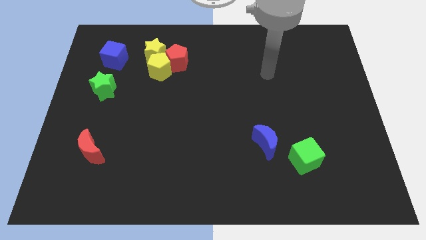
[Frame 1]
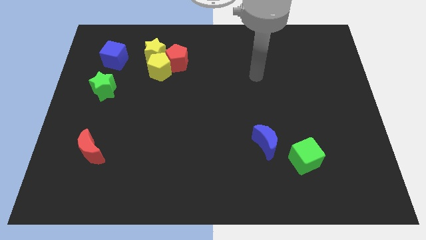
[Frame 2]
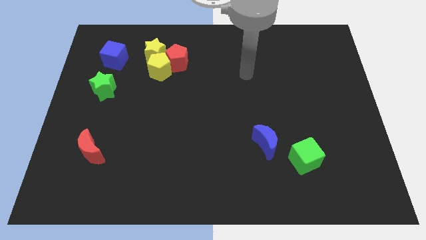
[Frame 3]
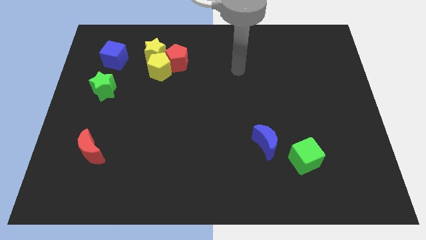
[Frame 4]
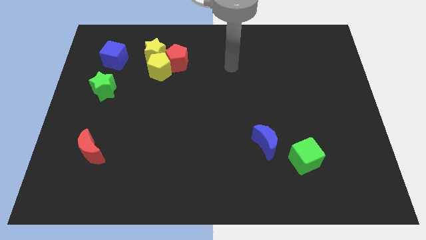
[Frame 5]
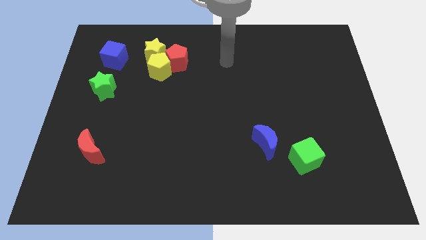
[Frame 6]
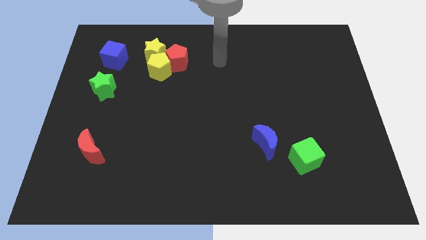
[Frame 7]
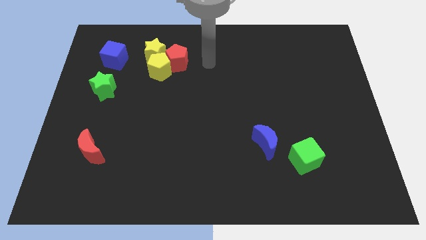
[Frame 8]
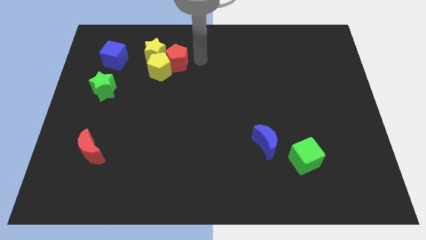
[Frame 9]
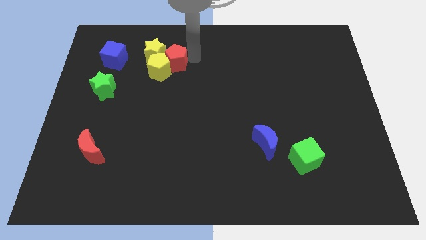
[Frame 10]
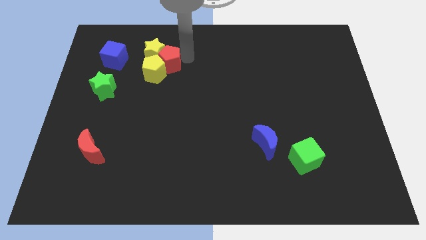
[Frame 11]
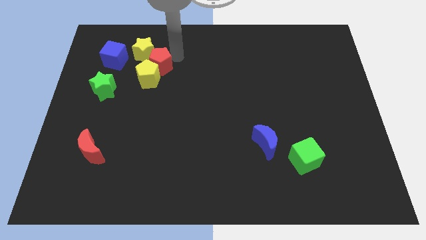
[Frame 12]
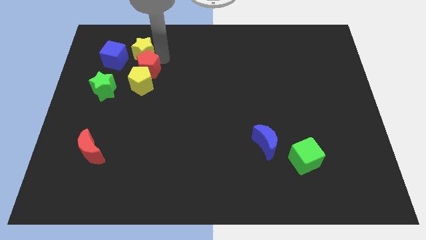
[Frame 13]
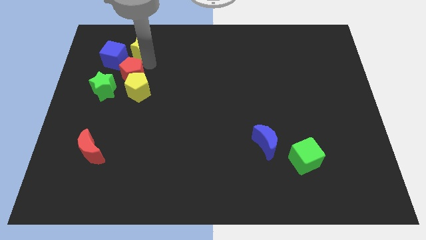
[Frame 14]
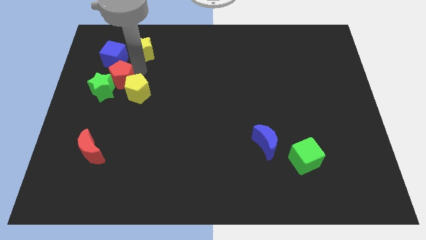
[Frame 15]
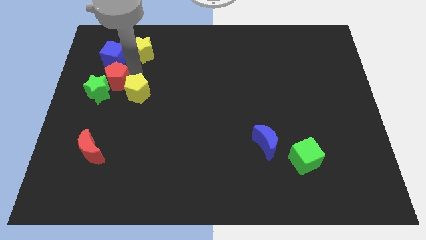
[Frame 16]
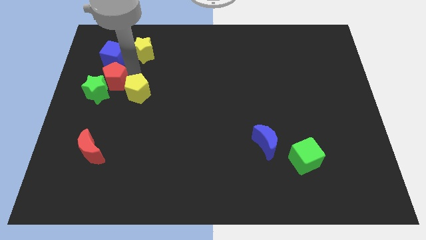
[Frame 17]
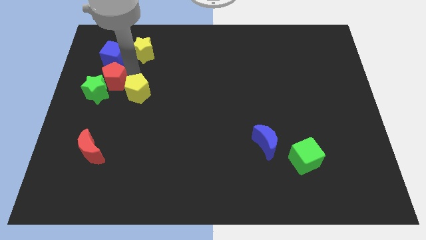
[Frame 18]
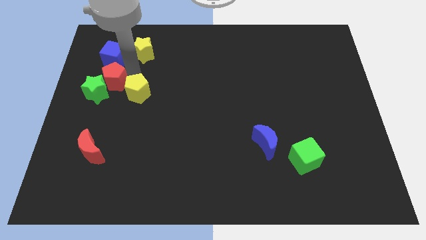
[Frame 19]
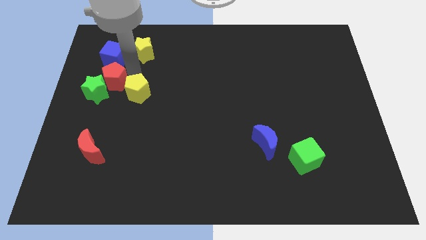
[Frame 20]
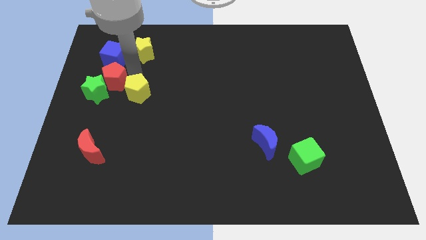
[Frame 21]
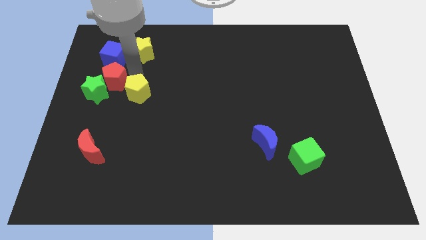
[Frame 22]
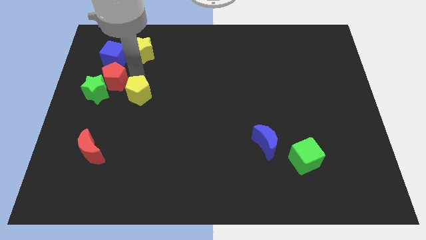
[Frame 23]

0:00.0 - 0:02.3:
pull the yellow pentagon apart from the red pentagon and yellow star

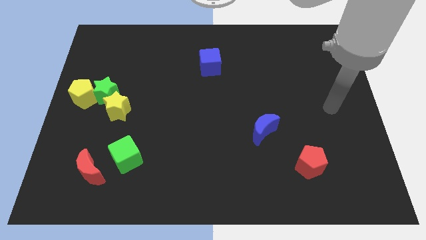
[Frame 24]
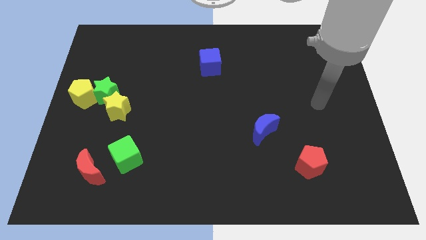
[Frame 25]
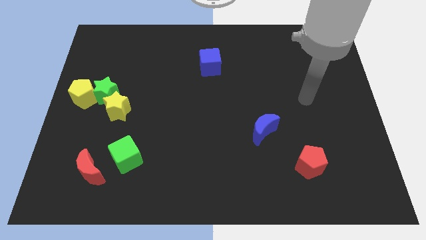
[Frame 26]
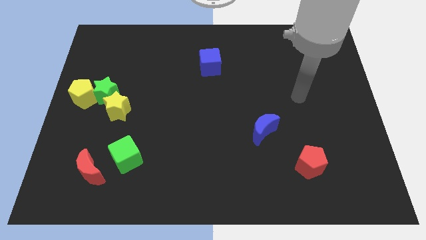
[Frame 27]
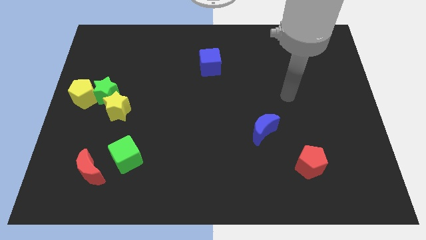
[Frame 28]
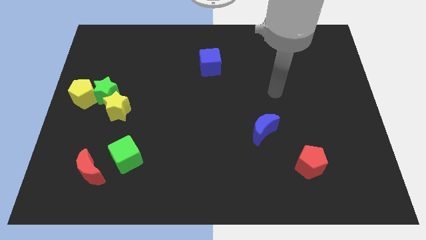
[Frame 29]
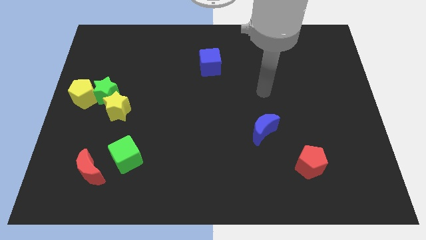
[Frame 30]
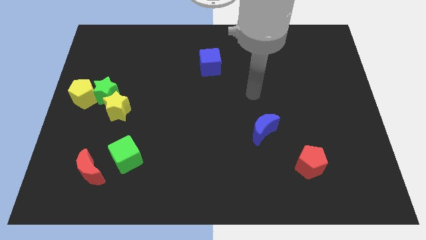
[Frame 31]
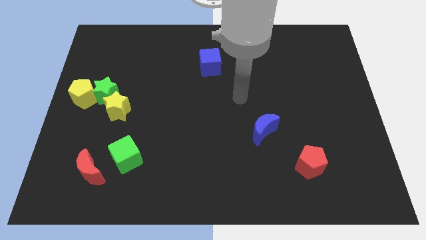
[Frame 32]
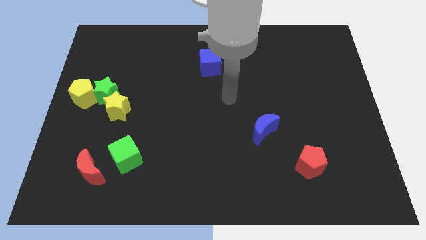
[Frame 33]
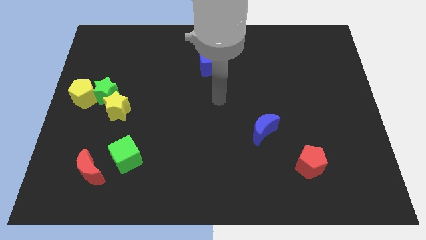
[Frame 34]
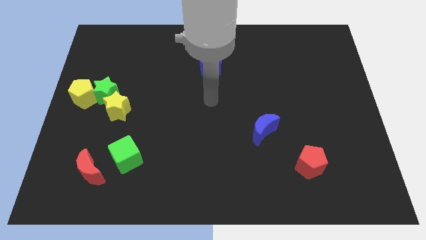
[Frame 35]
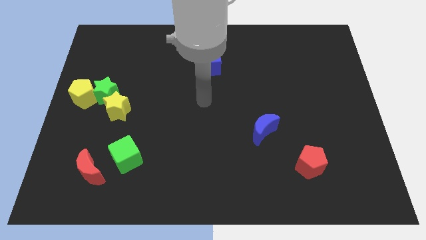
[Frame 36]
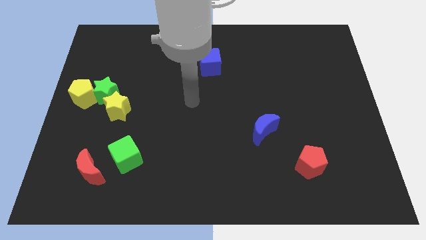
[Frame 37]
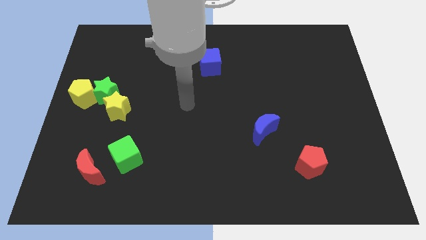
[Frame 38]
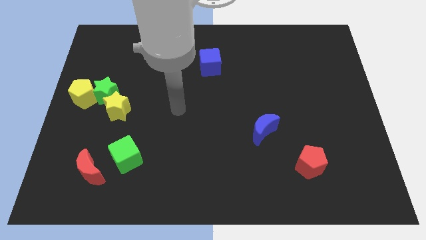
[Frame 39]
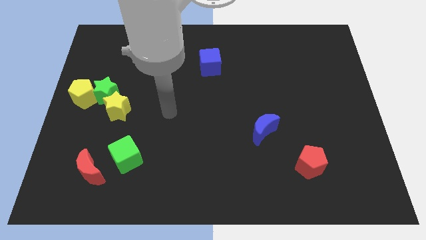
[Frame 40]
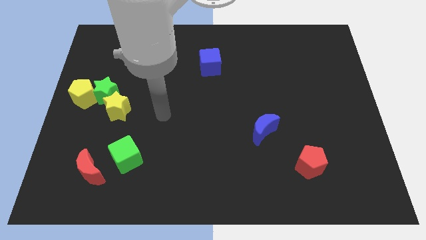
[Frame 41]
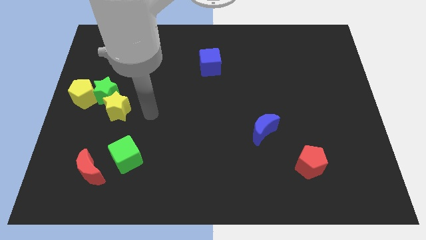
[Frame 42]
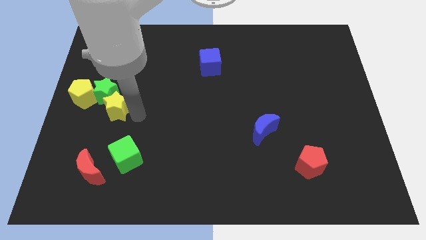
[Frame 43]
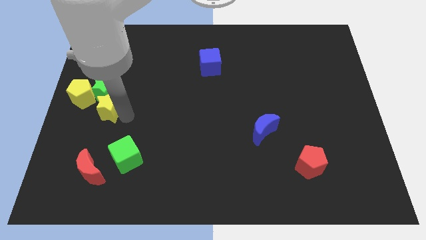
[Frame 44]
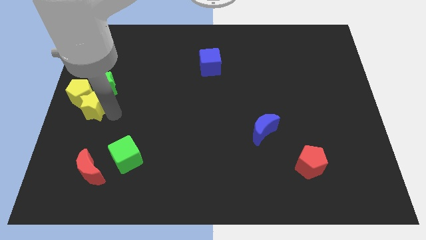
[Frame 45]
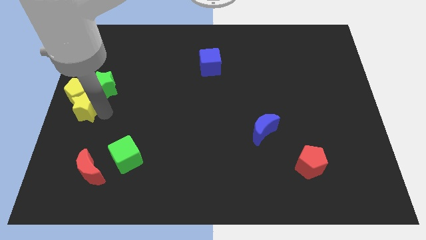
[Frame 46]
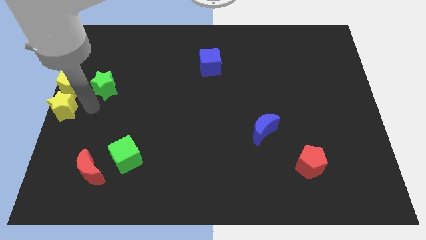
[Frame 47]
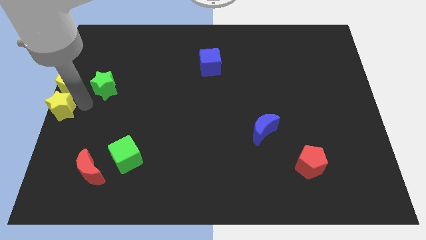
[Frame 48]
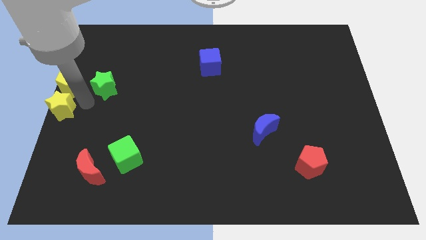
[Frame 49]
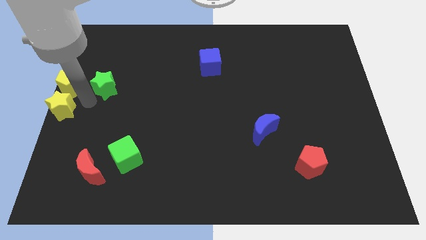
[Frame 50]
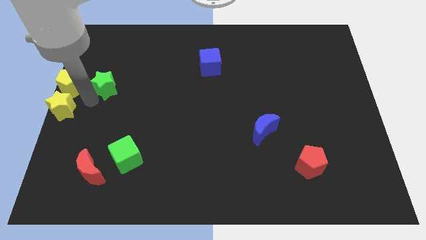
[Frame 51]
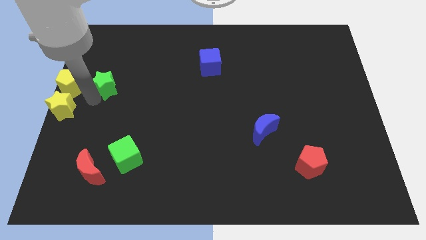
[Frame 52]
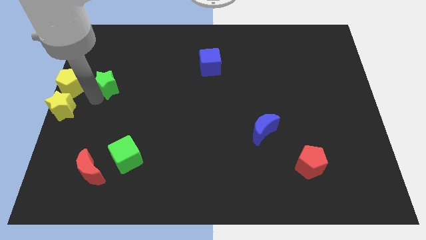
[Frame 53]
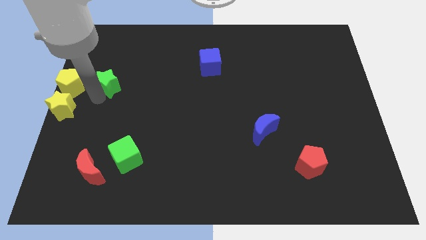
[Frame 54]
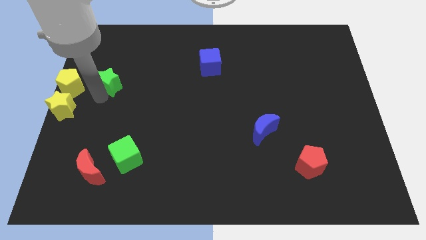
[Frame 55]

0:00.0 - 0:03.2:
pull the green star apart from the yellow pentagon and yellow star

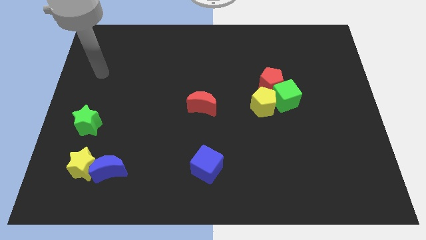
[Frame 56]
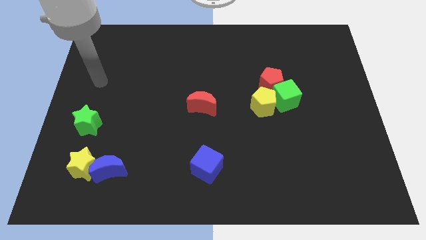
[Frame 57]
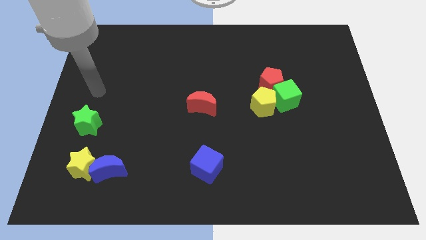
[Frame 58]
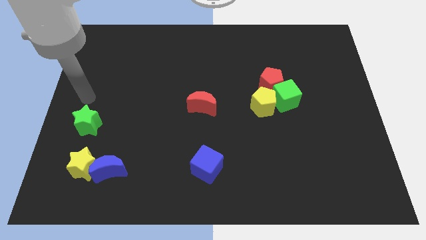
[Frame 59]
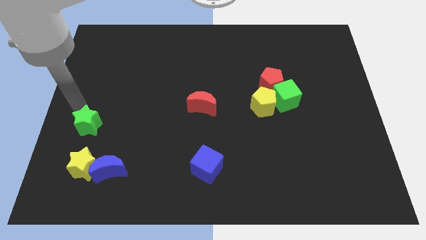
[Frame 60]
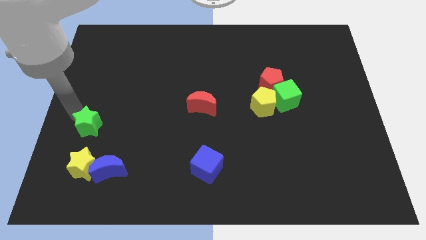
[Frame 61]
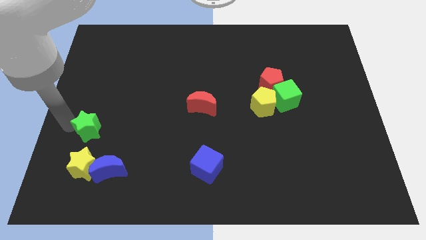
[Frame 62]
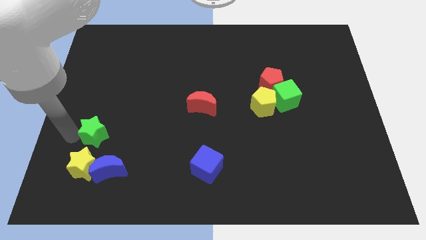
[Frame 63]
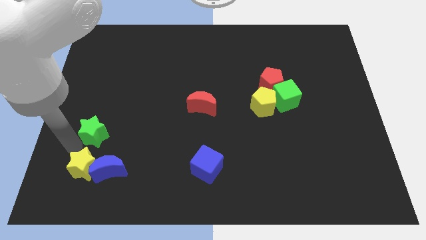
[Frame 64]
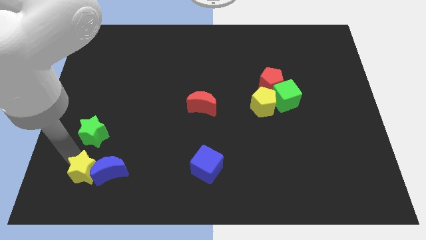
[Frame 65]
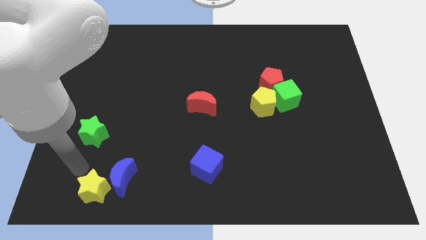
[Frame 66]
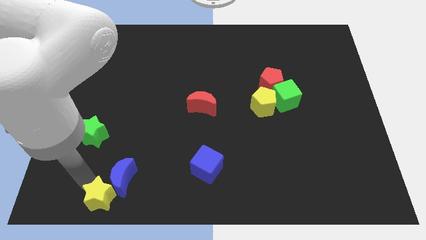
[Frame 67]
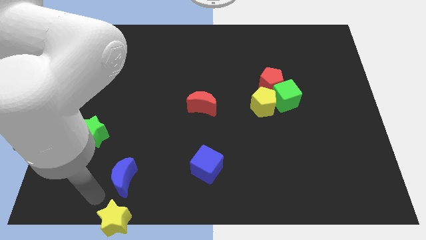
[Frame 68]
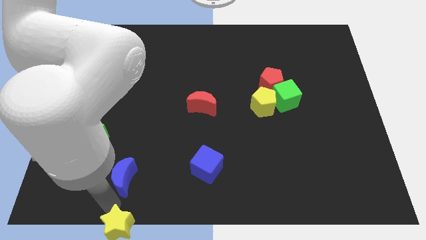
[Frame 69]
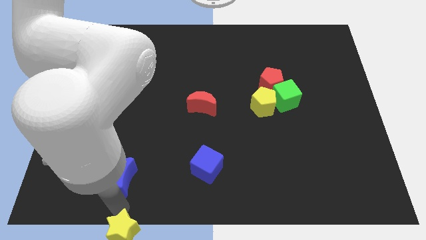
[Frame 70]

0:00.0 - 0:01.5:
move the blue moon away from the yellow star

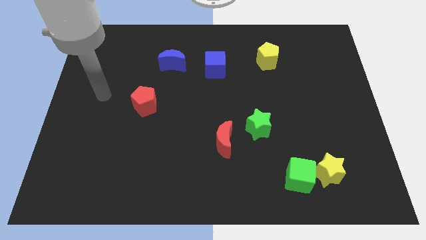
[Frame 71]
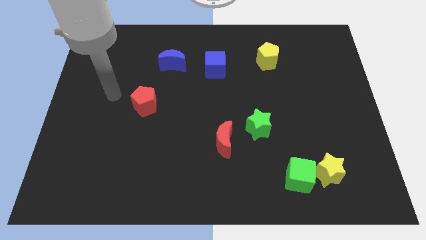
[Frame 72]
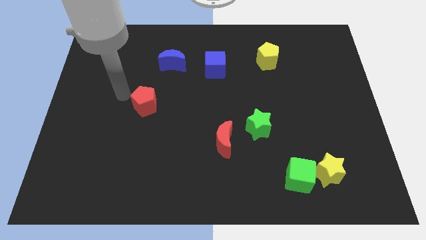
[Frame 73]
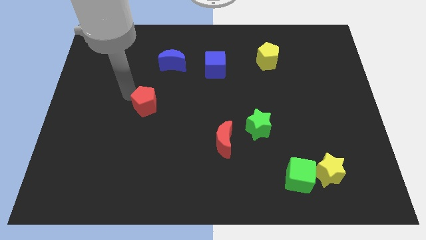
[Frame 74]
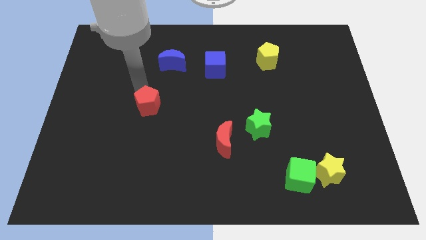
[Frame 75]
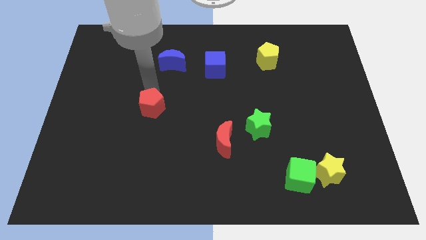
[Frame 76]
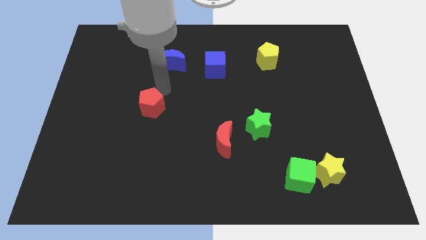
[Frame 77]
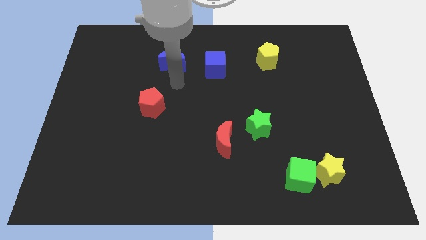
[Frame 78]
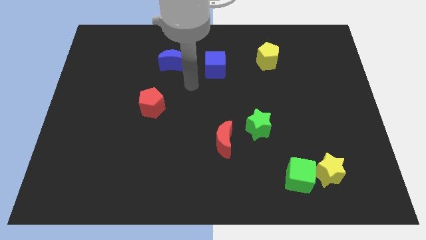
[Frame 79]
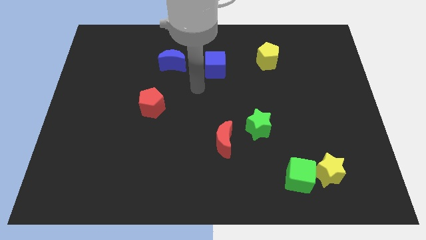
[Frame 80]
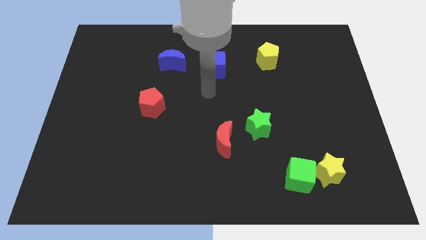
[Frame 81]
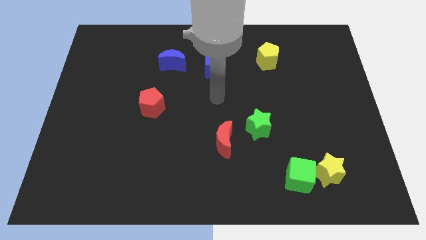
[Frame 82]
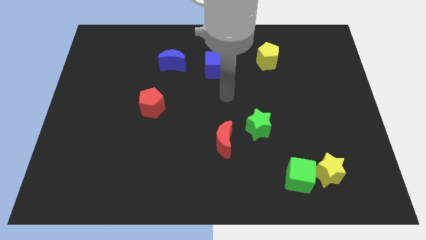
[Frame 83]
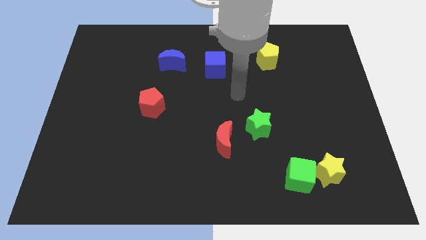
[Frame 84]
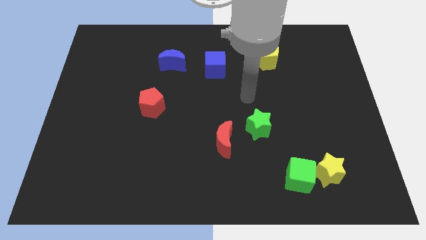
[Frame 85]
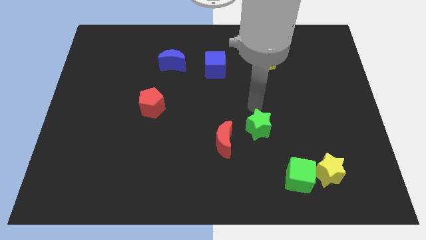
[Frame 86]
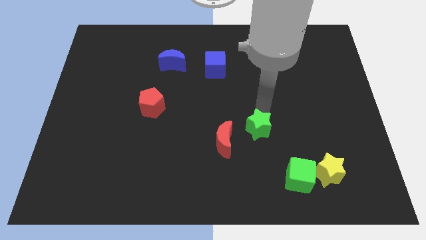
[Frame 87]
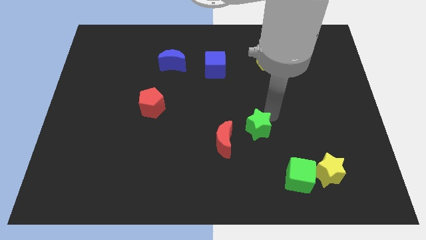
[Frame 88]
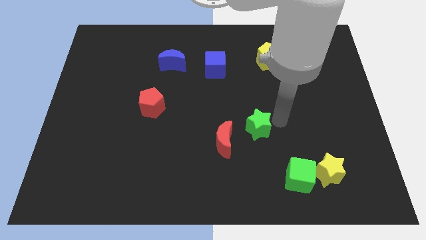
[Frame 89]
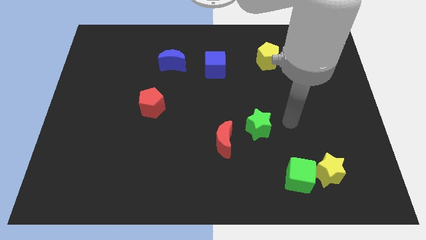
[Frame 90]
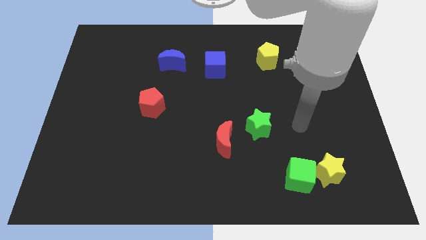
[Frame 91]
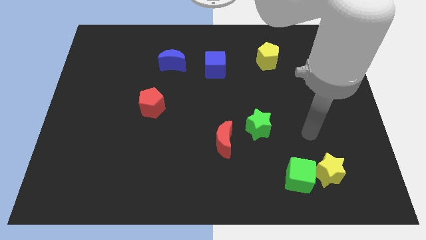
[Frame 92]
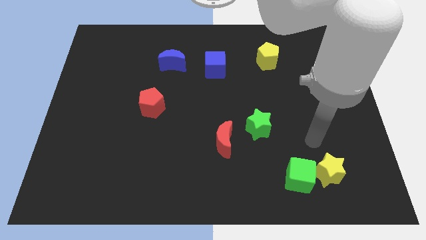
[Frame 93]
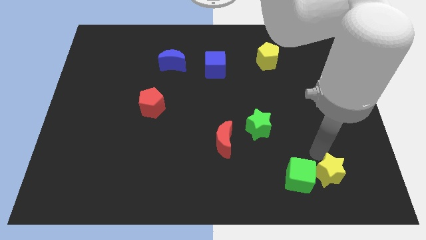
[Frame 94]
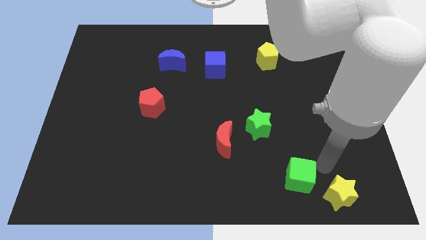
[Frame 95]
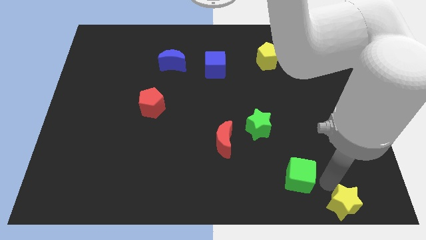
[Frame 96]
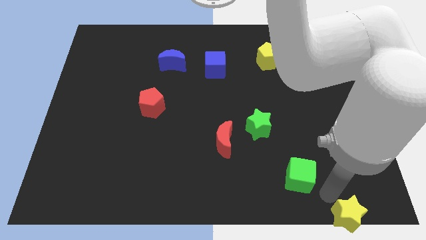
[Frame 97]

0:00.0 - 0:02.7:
move the green cube away from the yellow star
